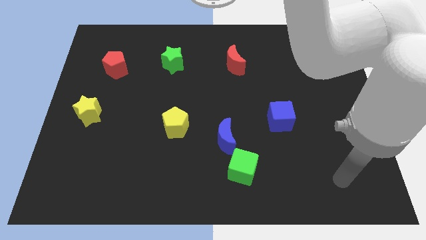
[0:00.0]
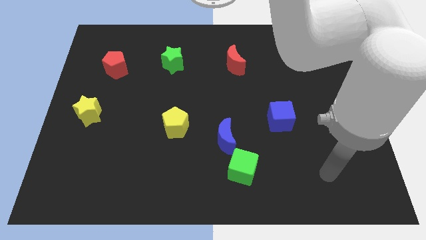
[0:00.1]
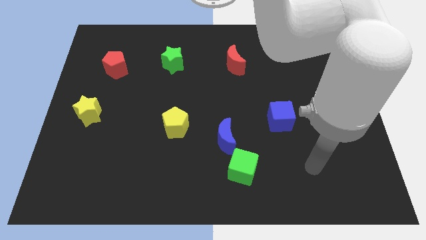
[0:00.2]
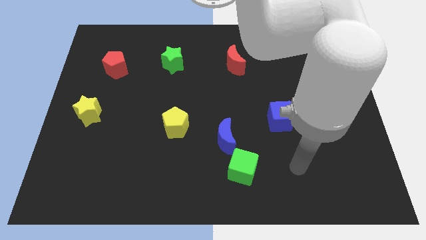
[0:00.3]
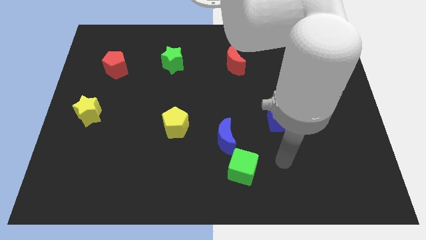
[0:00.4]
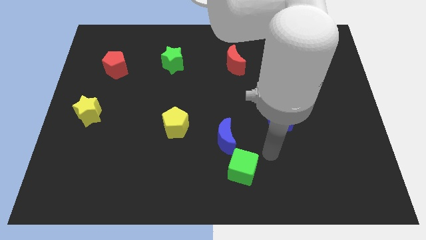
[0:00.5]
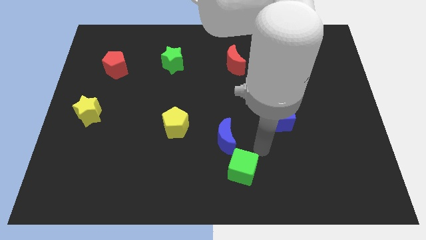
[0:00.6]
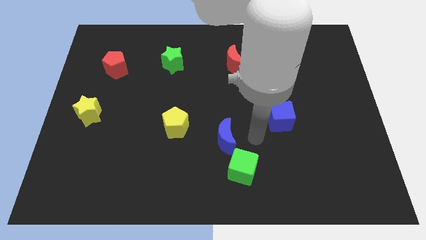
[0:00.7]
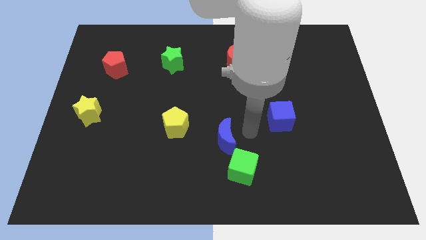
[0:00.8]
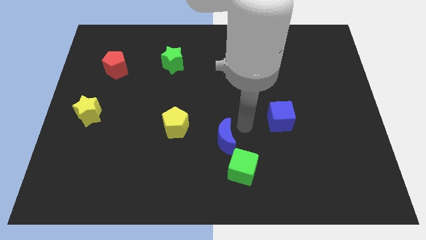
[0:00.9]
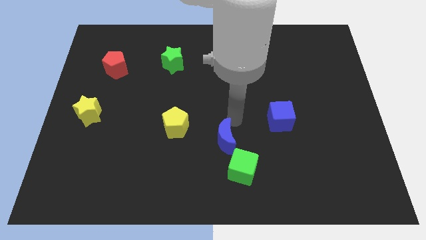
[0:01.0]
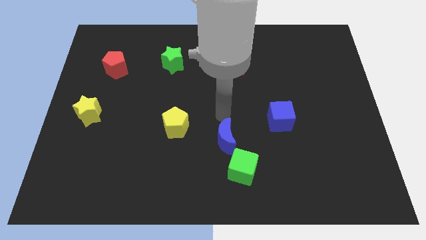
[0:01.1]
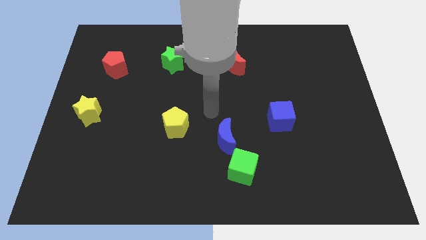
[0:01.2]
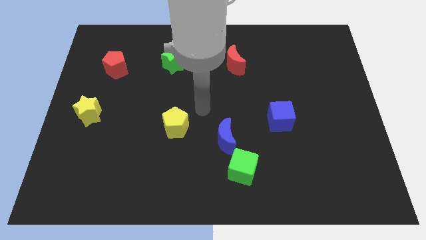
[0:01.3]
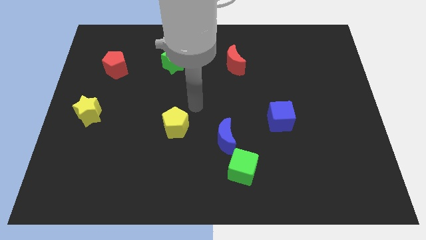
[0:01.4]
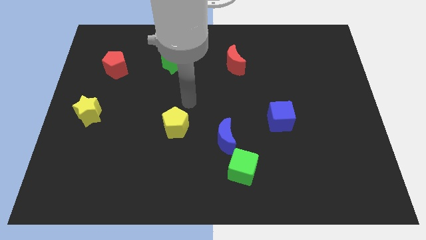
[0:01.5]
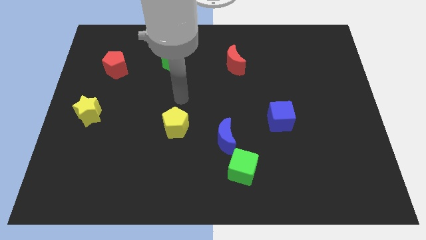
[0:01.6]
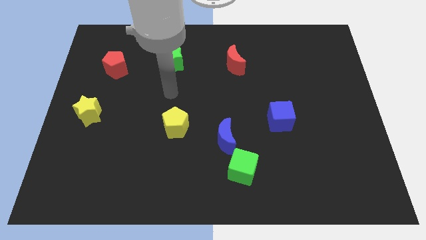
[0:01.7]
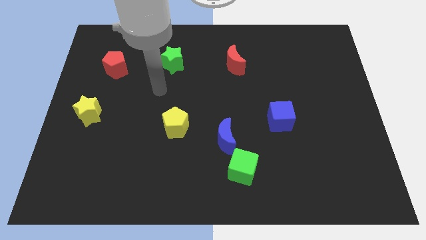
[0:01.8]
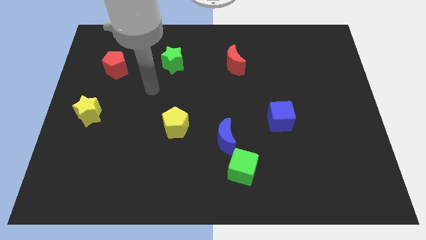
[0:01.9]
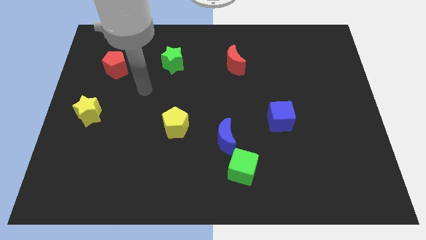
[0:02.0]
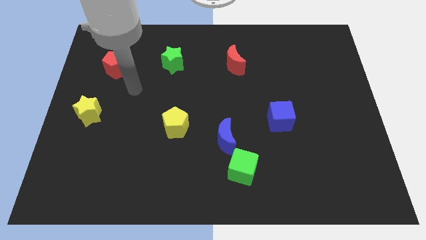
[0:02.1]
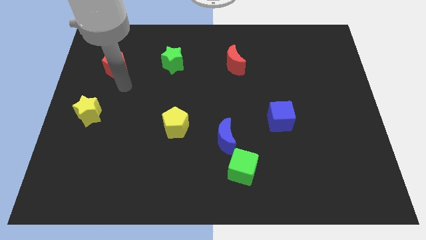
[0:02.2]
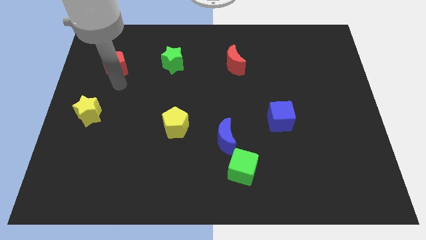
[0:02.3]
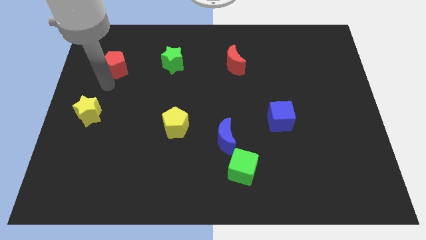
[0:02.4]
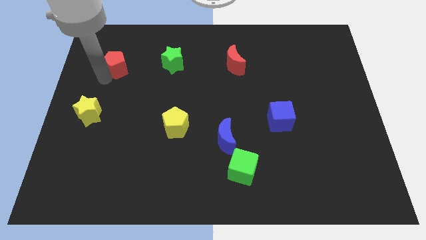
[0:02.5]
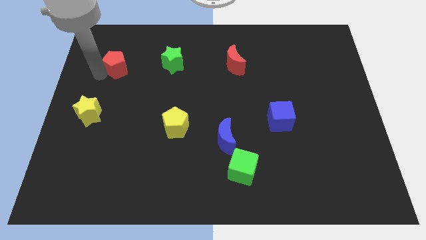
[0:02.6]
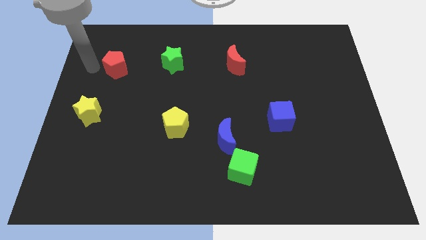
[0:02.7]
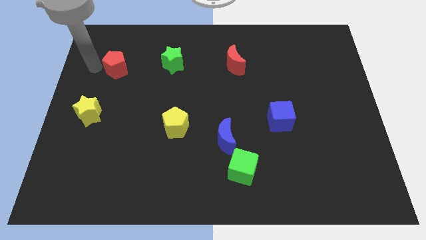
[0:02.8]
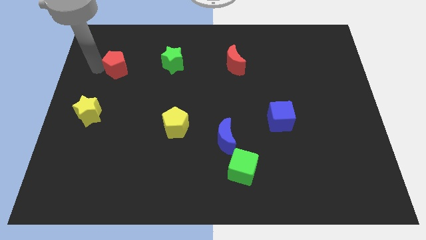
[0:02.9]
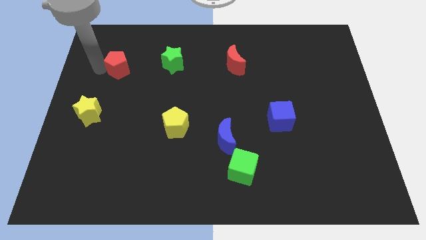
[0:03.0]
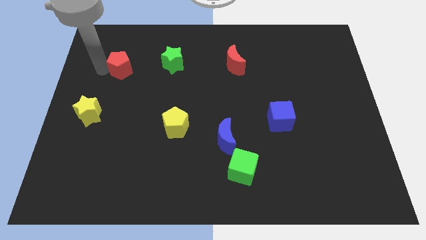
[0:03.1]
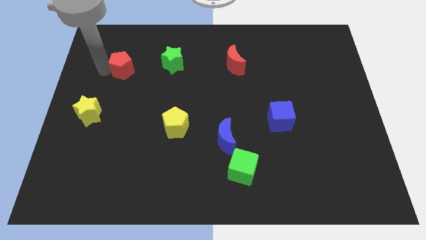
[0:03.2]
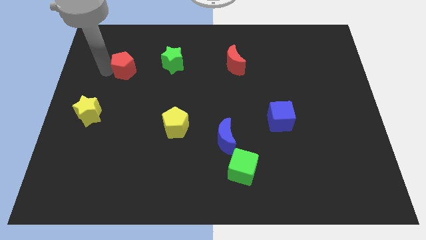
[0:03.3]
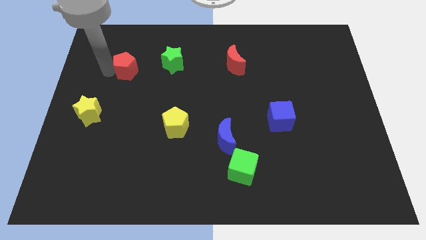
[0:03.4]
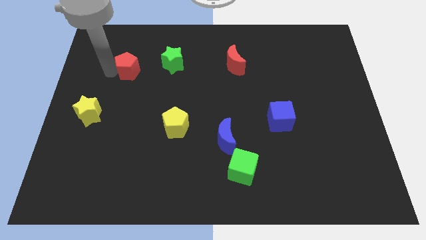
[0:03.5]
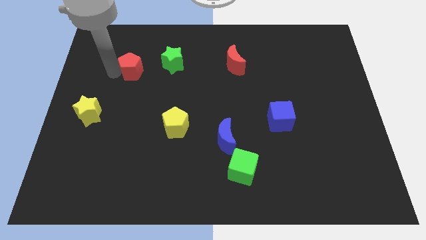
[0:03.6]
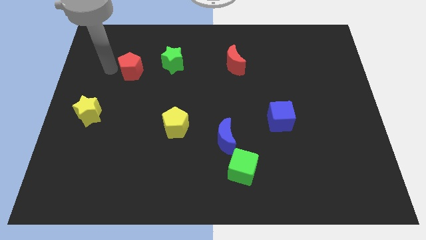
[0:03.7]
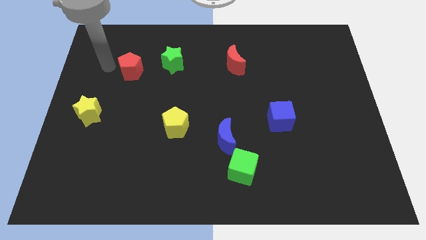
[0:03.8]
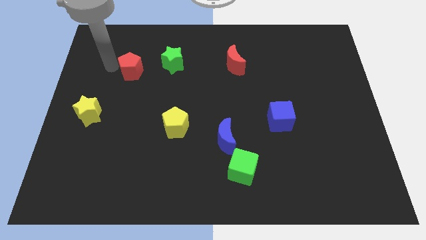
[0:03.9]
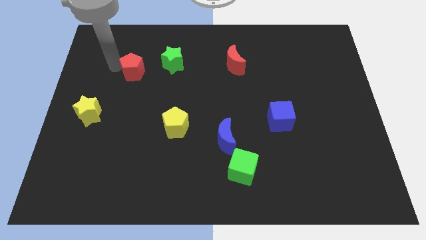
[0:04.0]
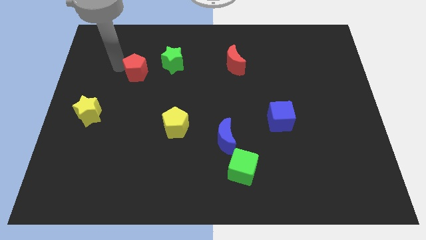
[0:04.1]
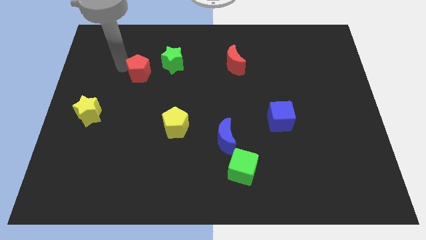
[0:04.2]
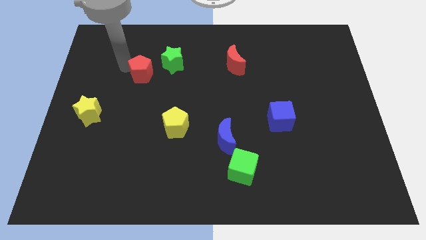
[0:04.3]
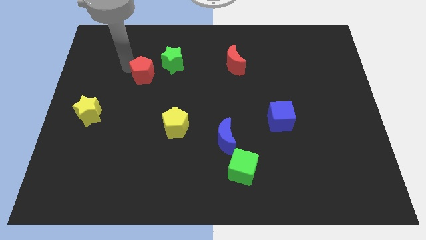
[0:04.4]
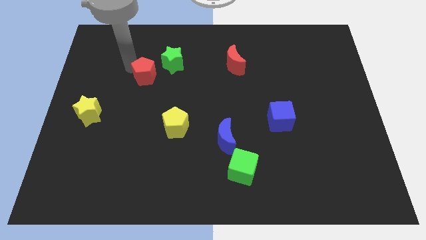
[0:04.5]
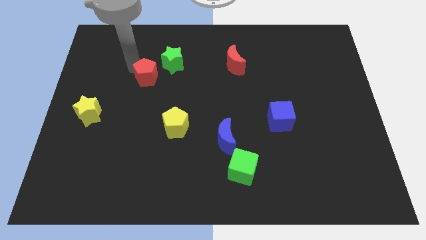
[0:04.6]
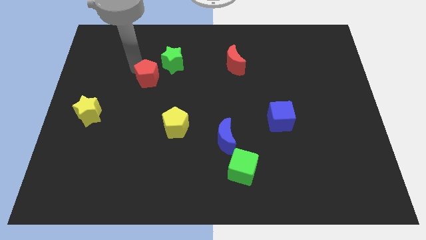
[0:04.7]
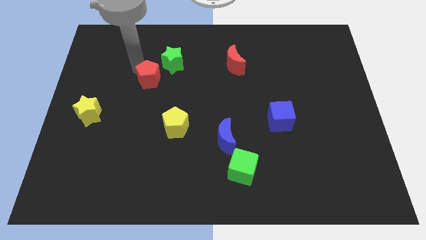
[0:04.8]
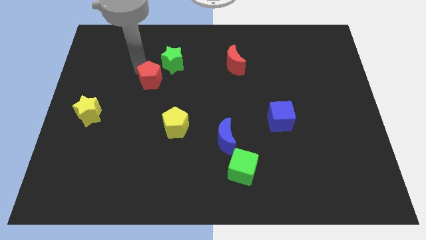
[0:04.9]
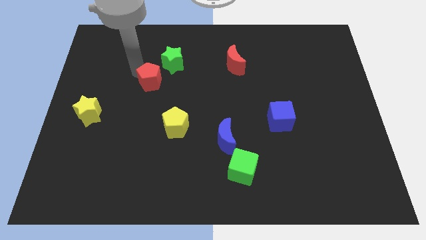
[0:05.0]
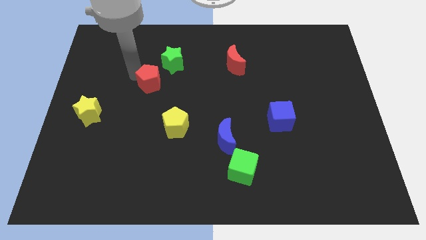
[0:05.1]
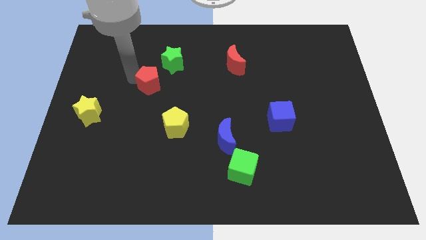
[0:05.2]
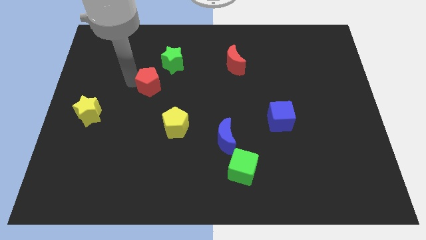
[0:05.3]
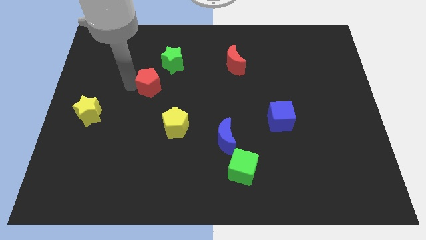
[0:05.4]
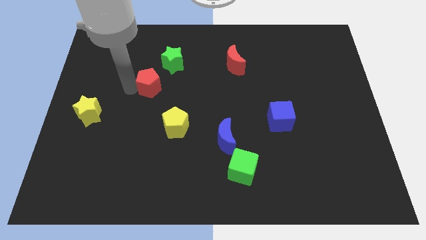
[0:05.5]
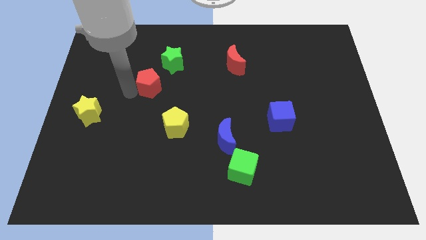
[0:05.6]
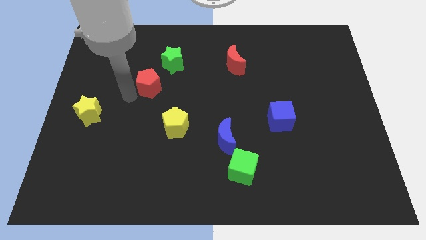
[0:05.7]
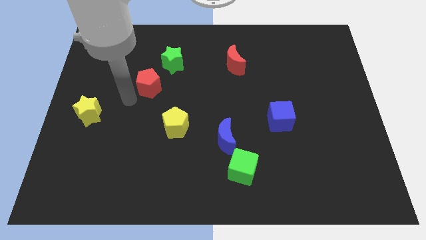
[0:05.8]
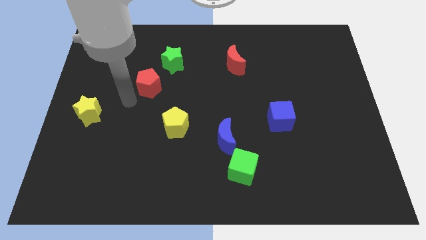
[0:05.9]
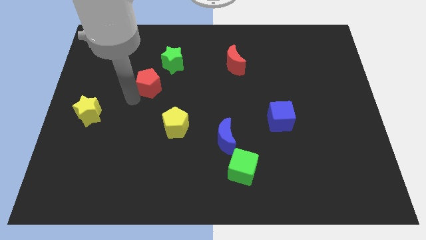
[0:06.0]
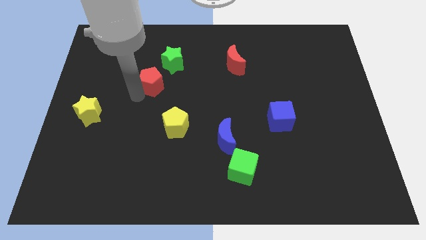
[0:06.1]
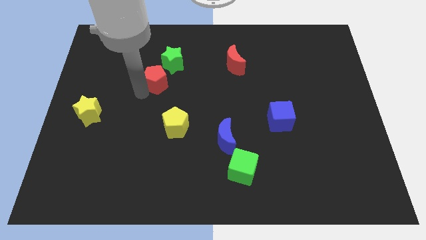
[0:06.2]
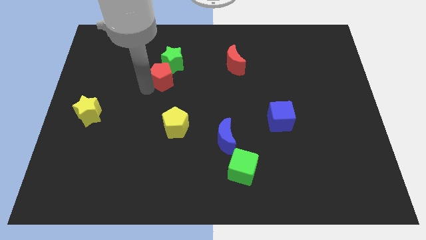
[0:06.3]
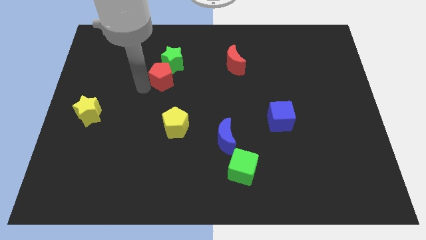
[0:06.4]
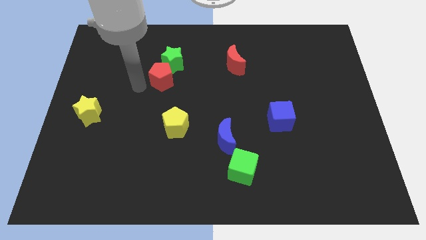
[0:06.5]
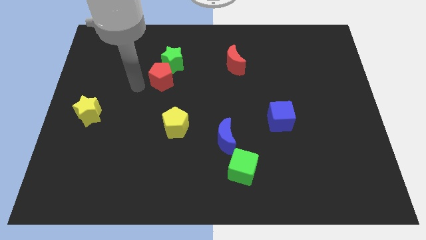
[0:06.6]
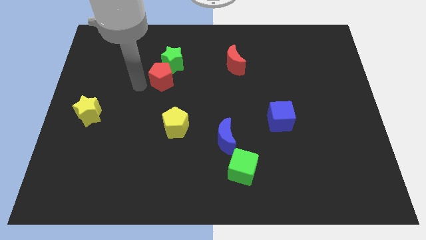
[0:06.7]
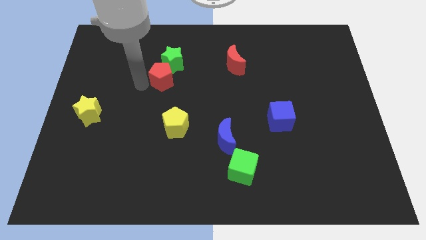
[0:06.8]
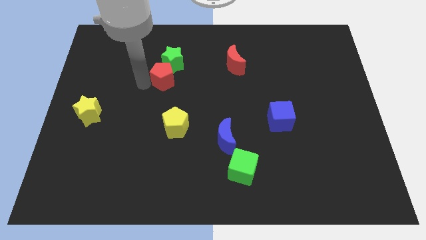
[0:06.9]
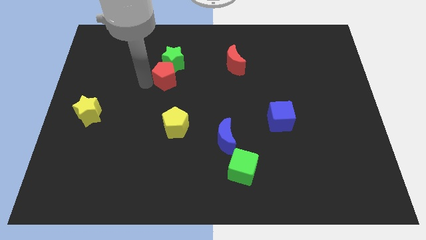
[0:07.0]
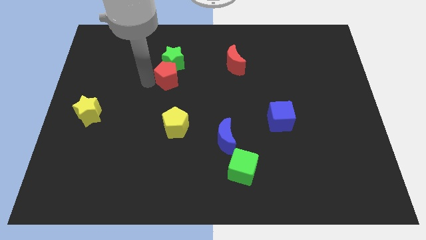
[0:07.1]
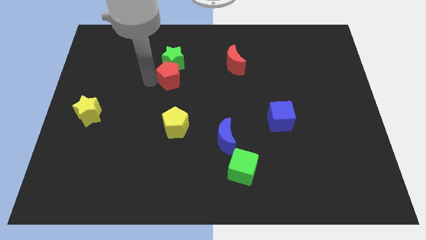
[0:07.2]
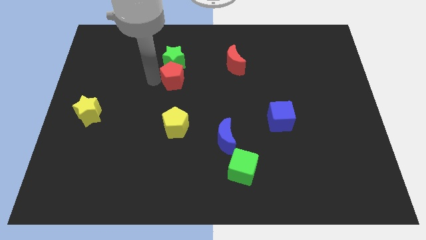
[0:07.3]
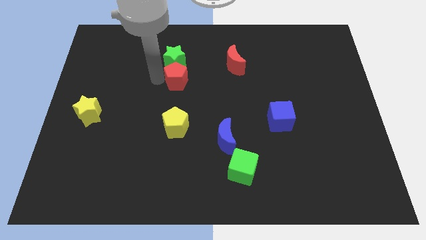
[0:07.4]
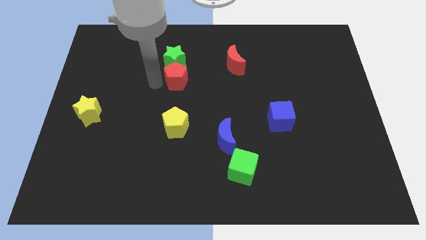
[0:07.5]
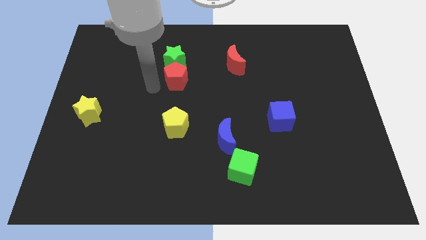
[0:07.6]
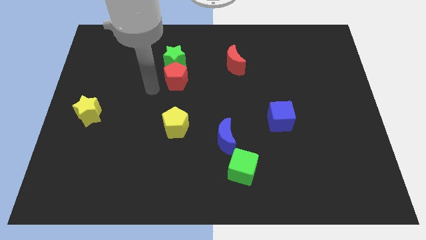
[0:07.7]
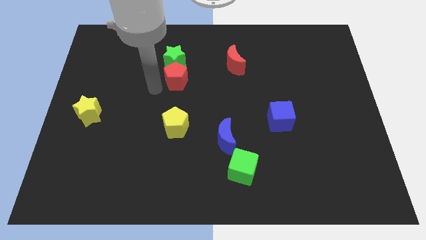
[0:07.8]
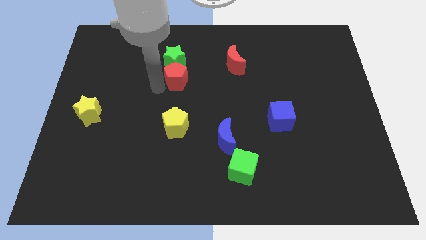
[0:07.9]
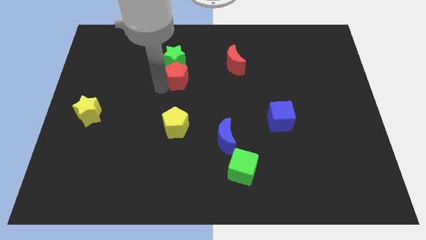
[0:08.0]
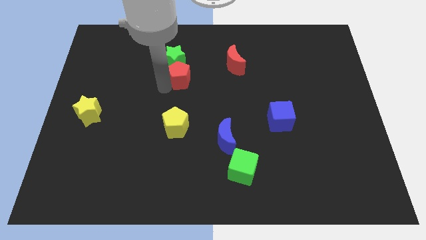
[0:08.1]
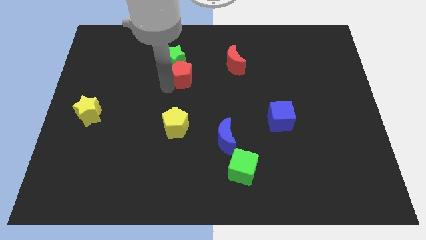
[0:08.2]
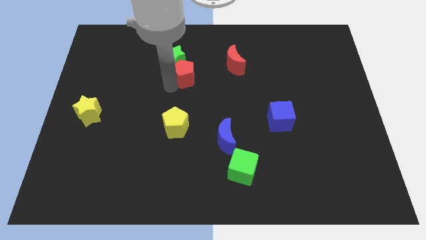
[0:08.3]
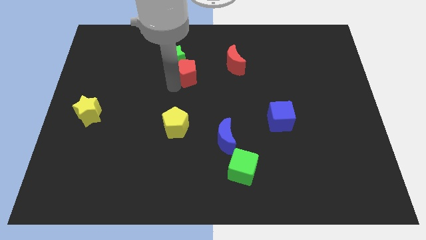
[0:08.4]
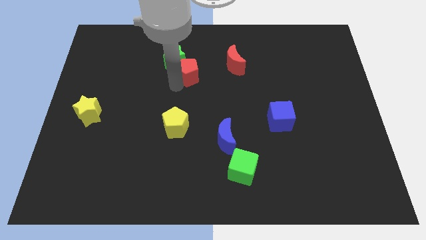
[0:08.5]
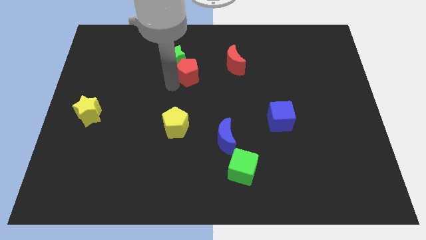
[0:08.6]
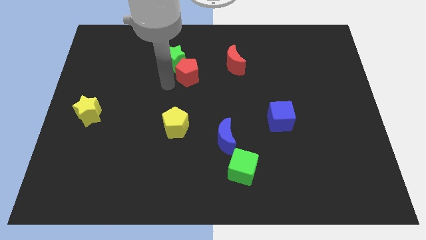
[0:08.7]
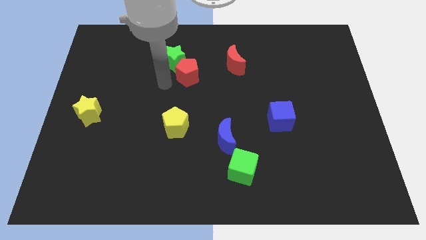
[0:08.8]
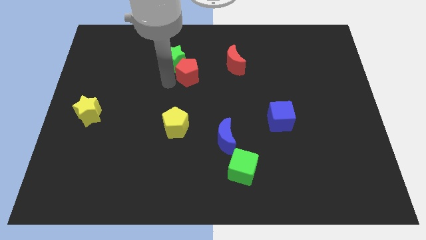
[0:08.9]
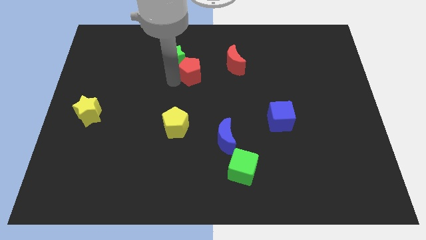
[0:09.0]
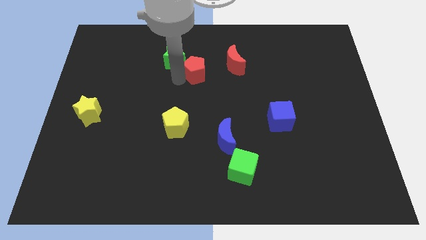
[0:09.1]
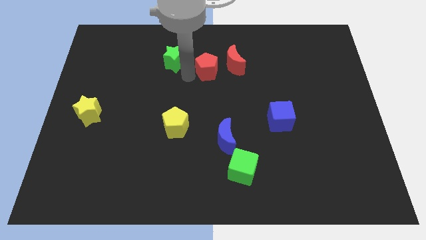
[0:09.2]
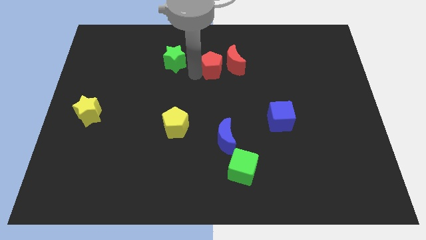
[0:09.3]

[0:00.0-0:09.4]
put the red pentagon next to the red moon
